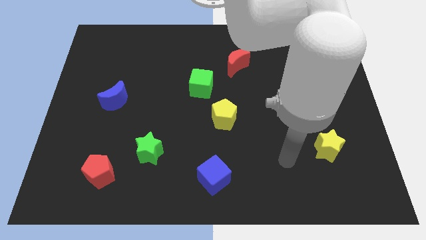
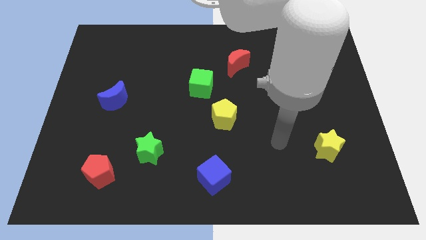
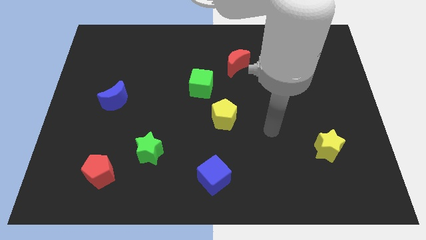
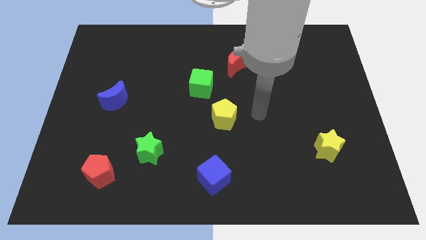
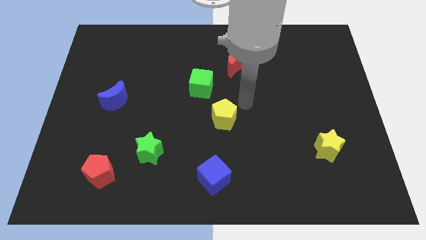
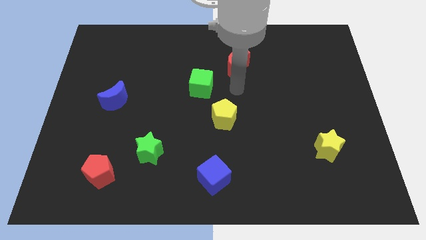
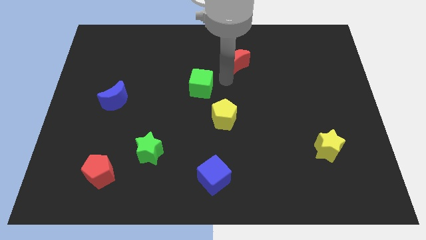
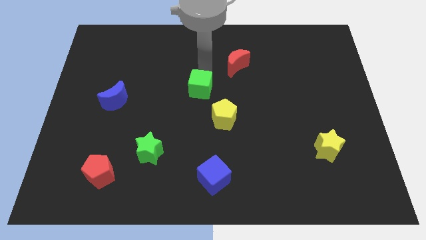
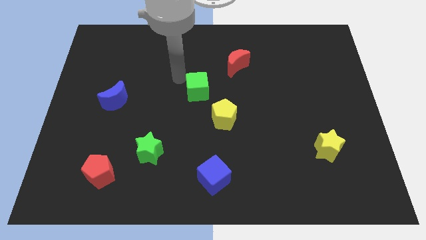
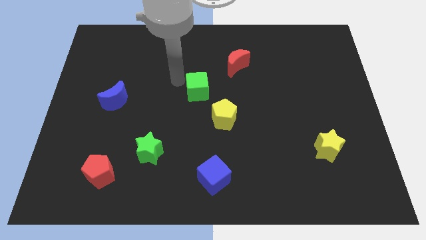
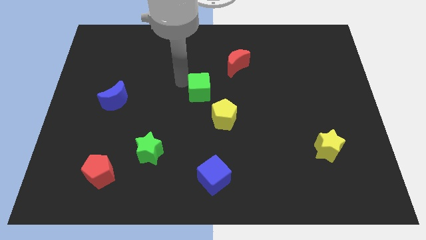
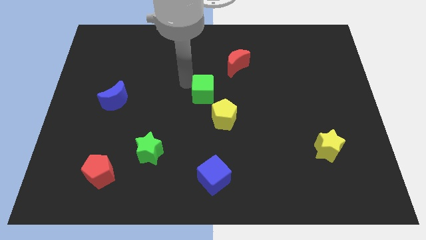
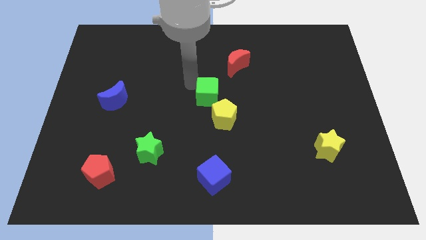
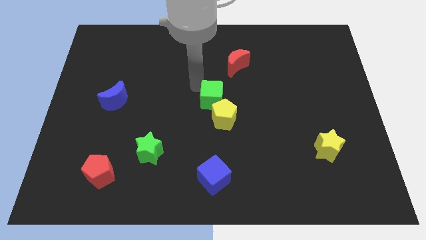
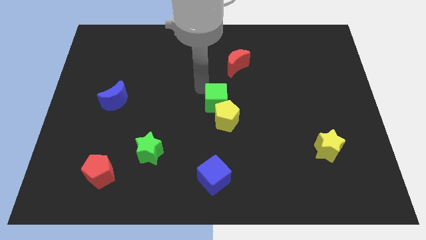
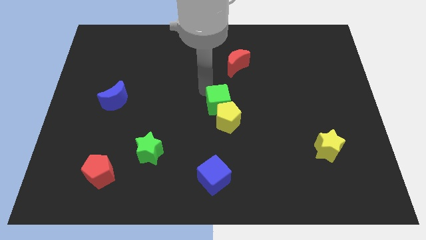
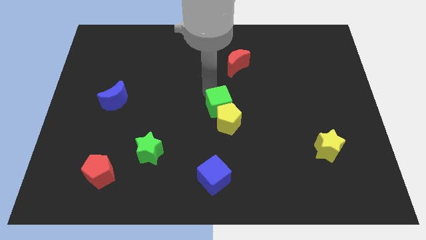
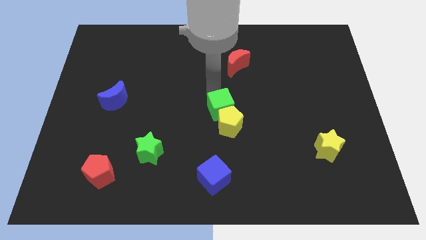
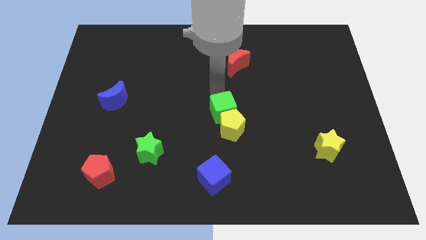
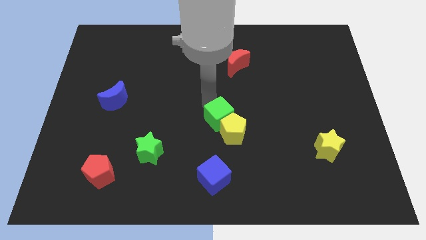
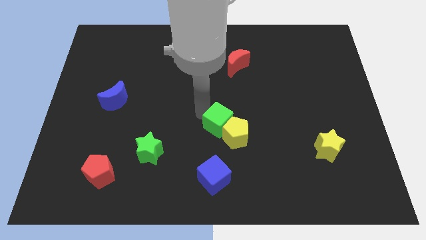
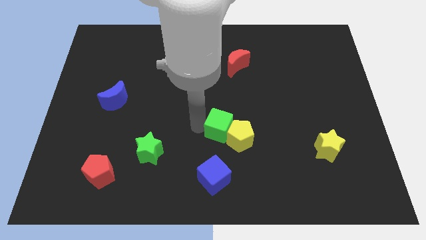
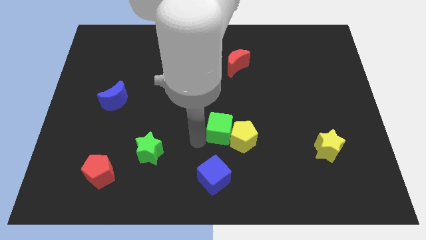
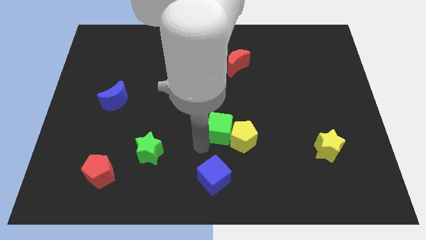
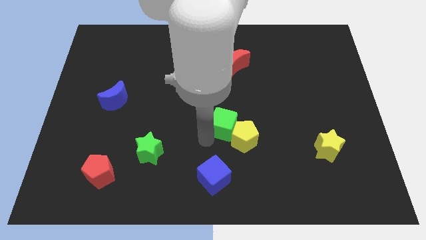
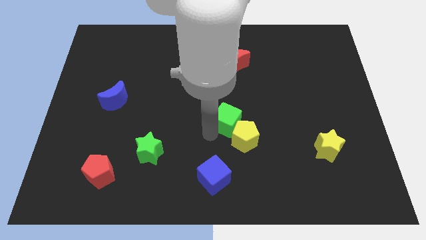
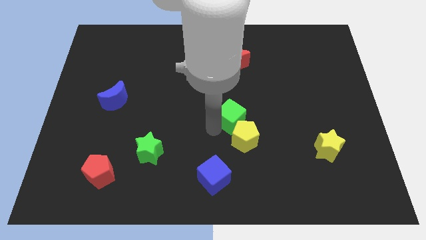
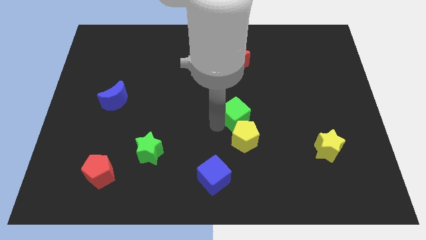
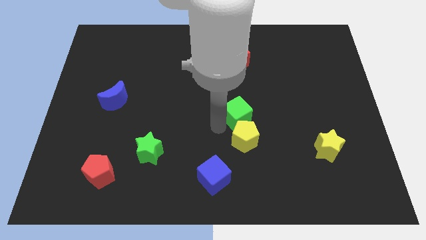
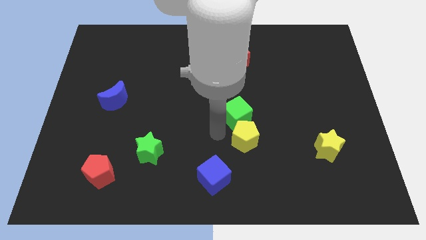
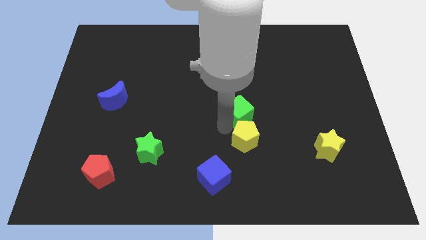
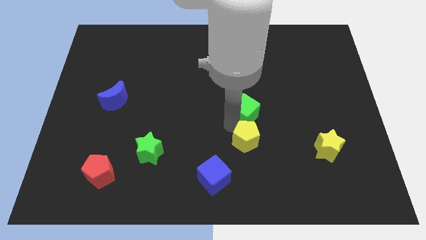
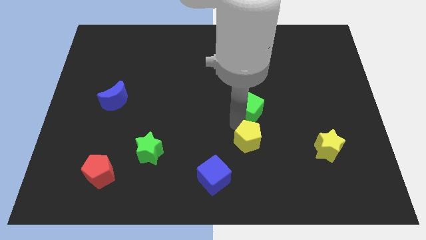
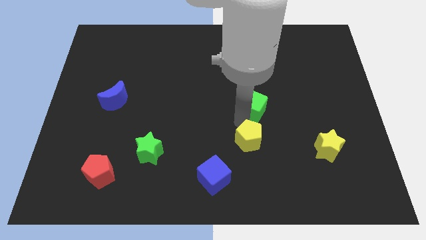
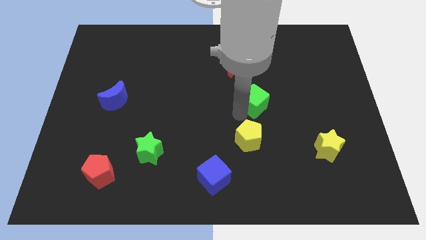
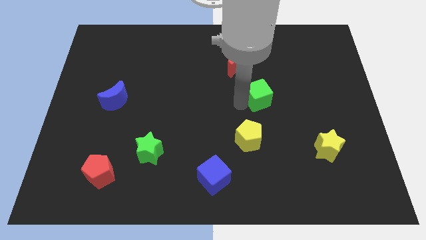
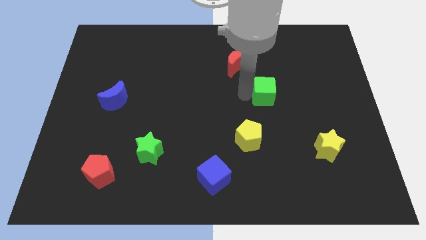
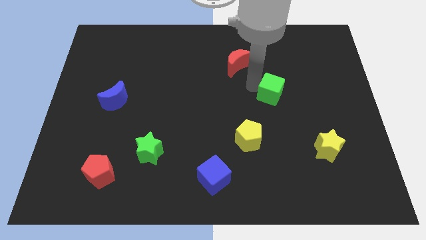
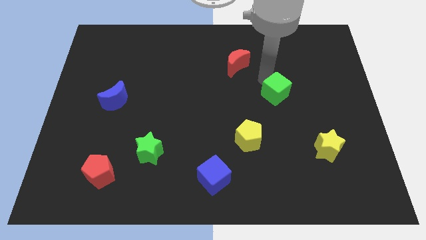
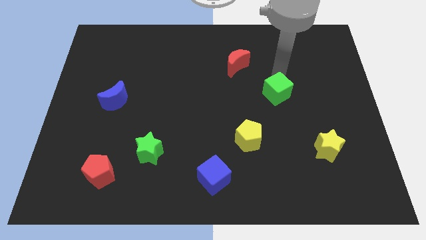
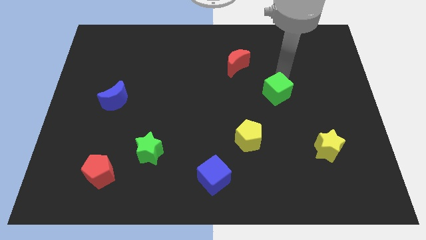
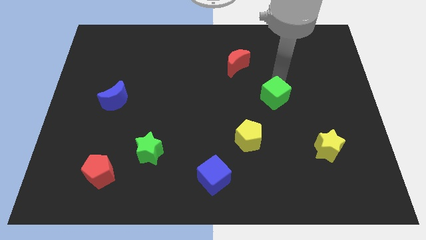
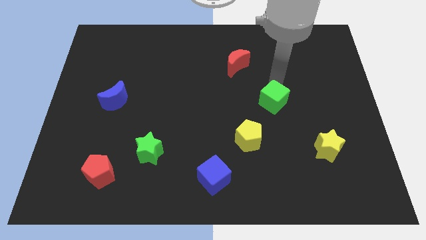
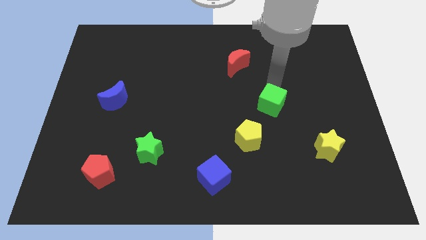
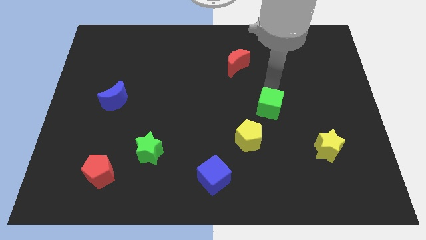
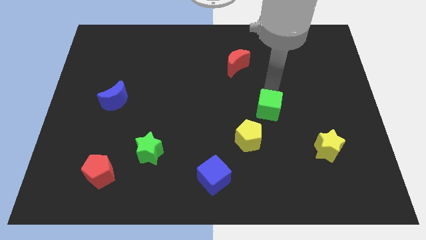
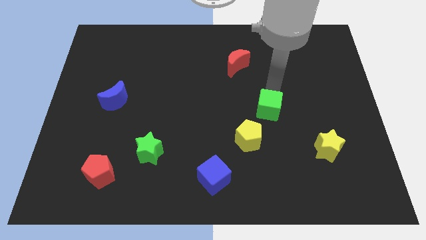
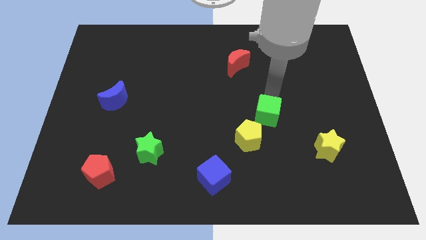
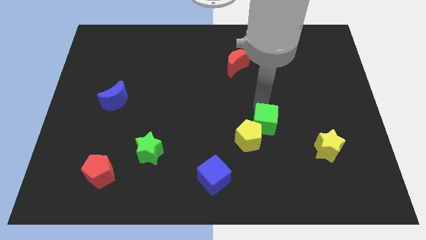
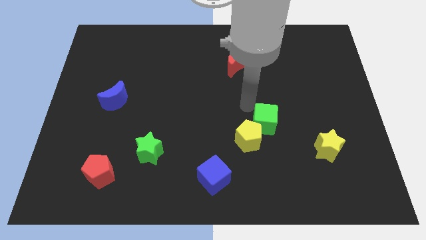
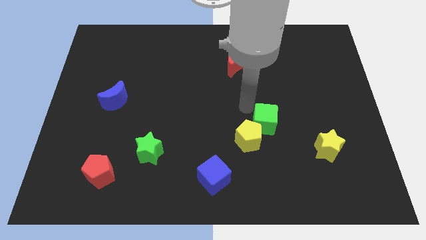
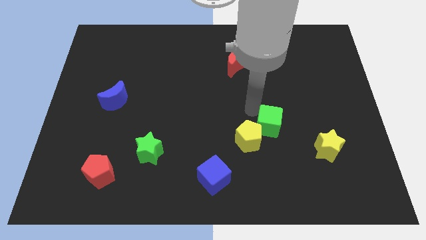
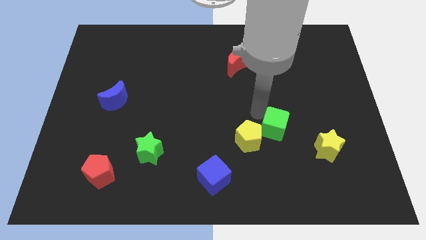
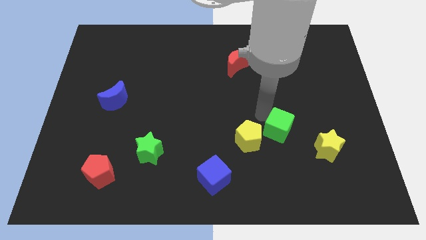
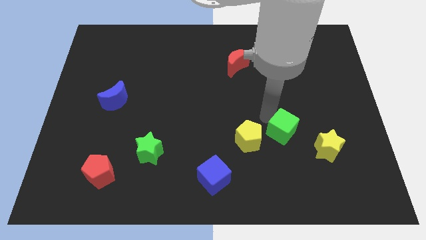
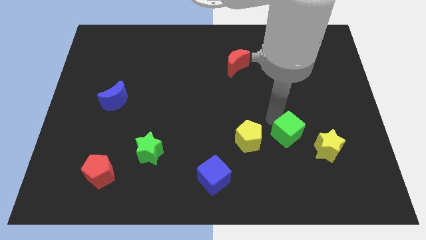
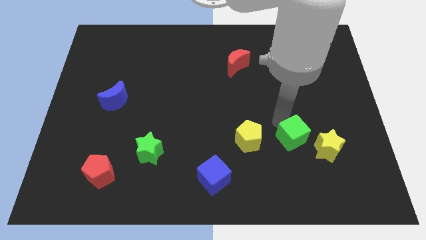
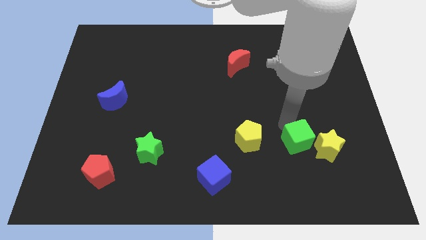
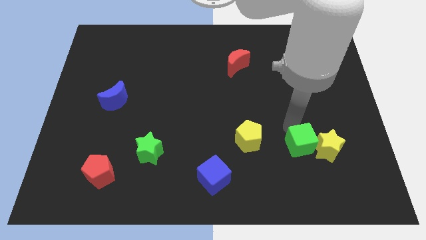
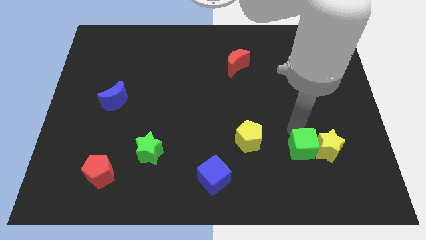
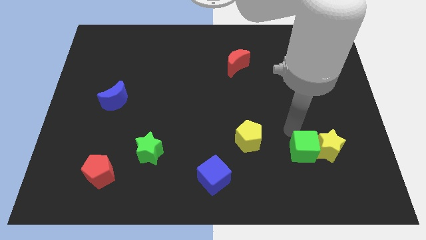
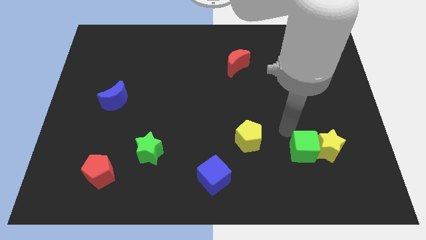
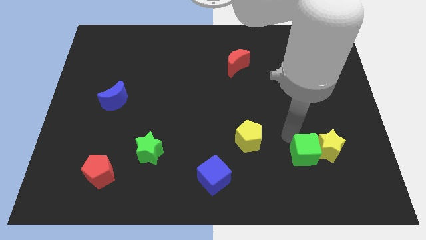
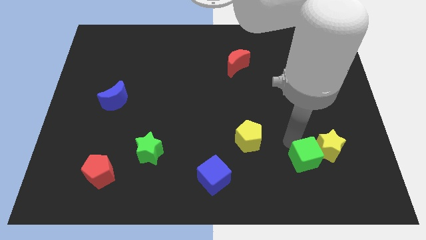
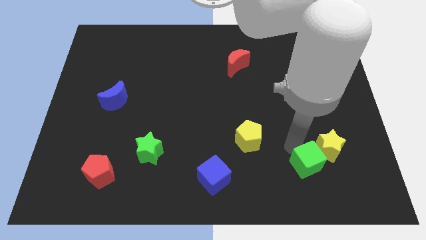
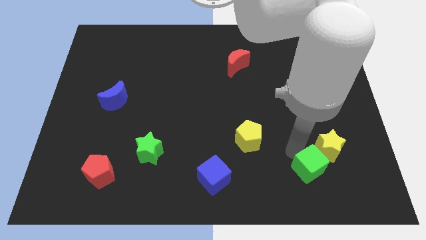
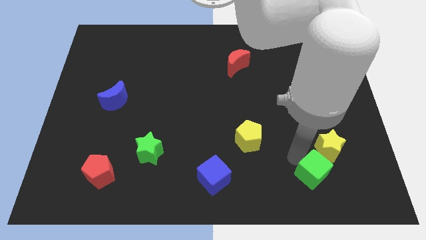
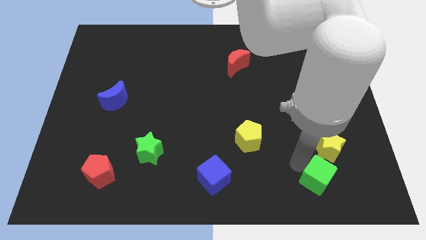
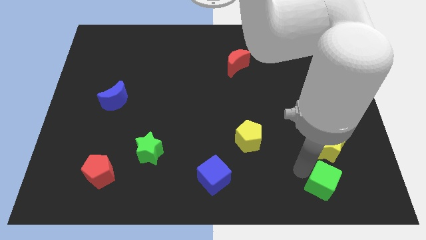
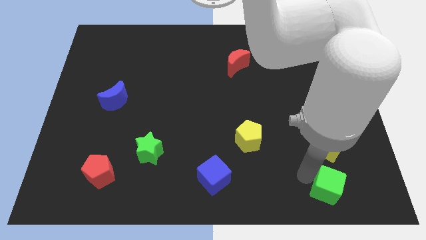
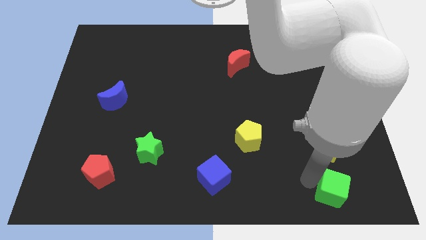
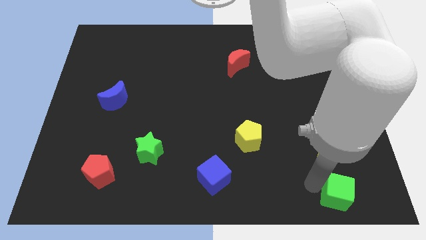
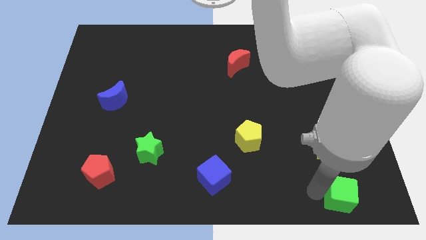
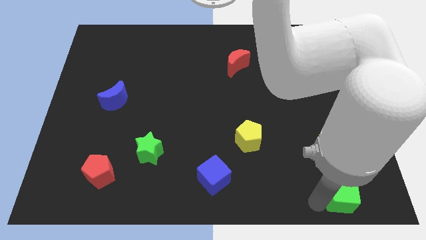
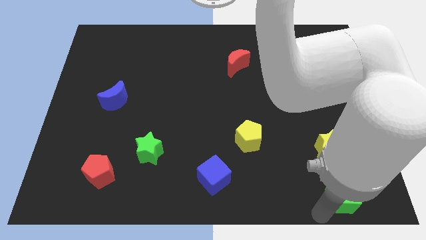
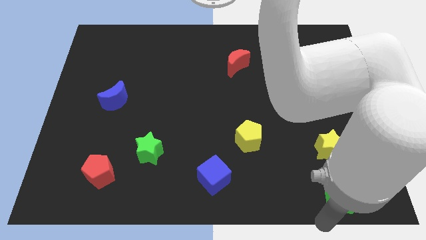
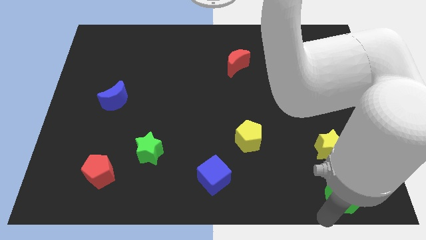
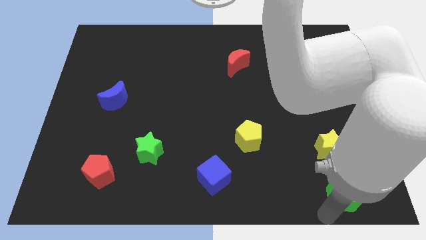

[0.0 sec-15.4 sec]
slide the green cube to the bottom right of the board
